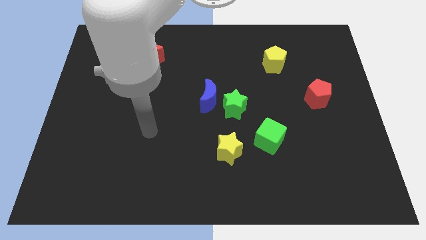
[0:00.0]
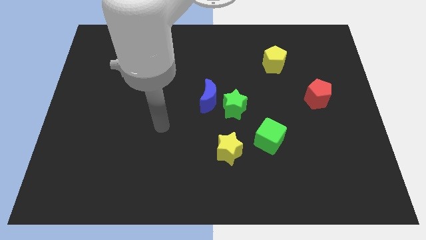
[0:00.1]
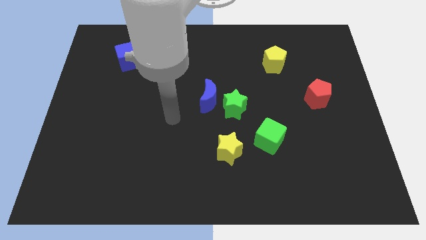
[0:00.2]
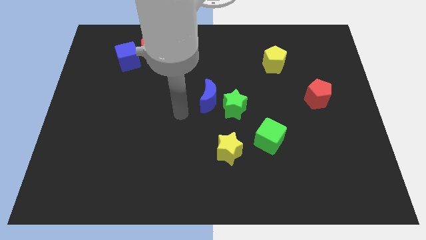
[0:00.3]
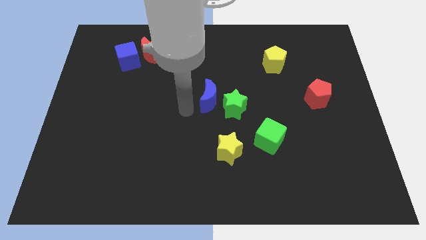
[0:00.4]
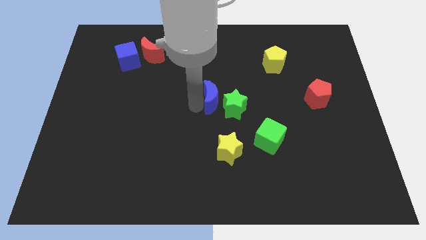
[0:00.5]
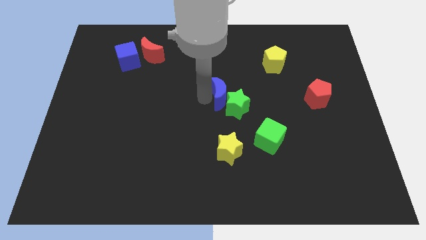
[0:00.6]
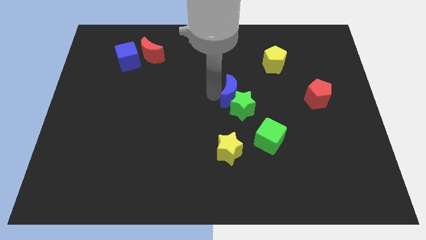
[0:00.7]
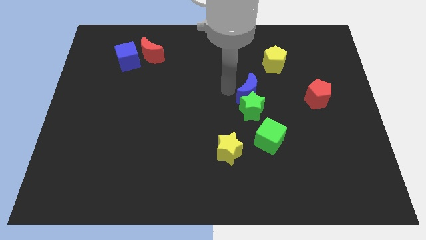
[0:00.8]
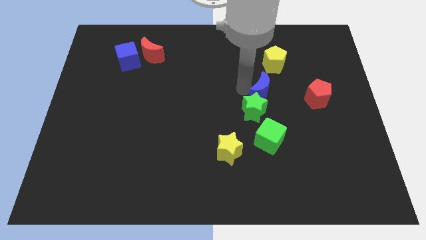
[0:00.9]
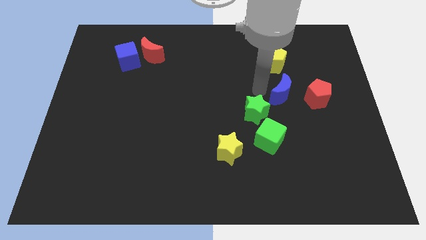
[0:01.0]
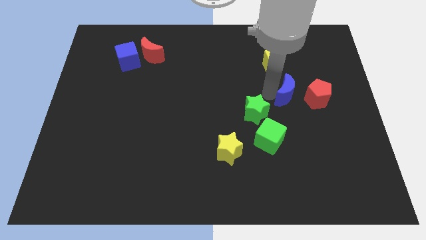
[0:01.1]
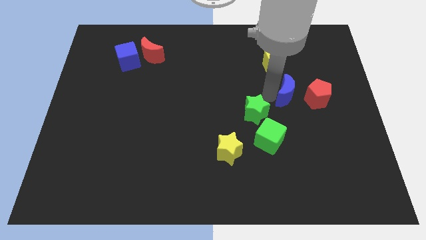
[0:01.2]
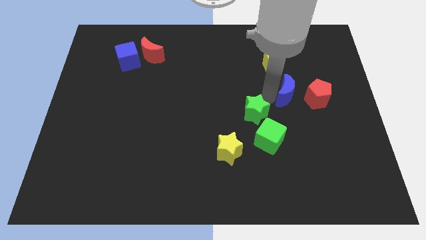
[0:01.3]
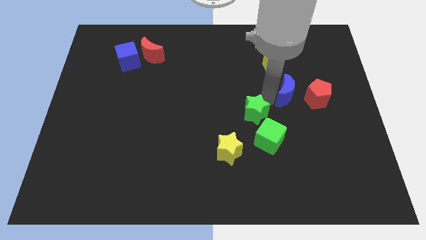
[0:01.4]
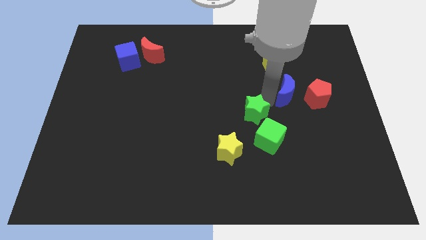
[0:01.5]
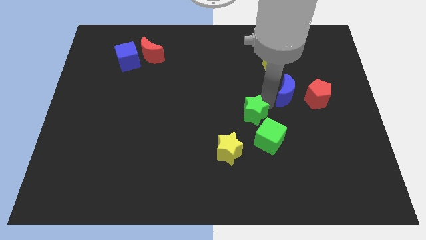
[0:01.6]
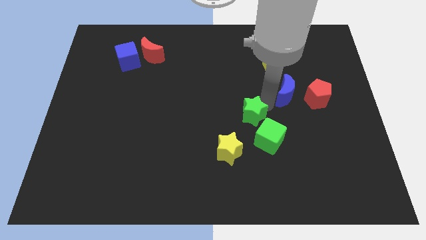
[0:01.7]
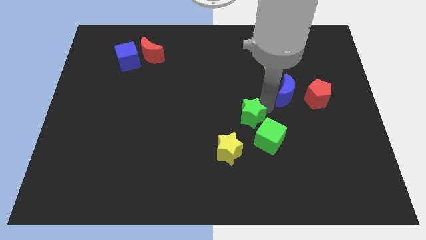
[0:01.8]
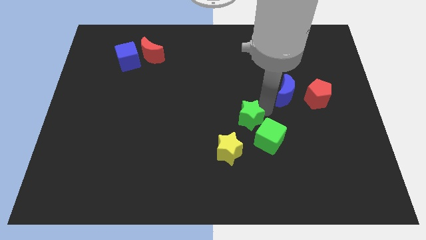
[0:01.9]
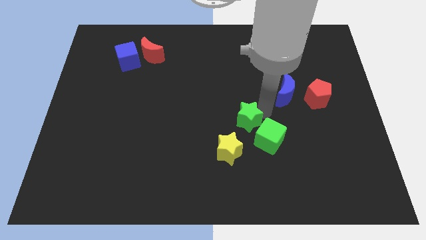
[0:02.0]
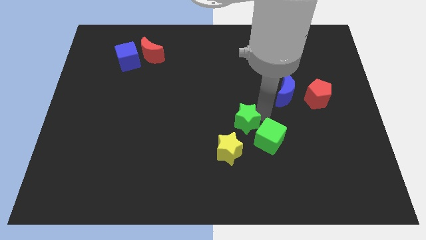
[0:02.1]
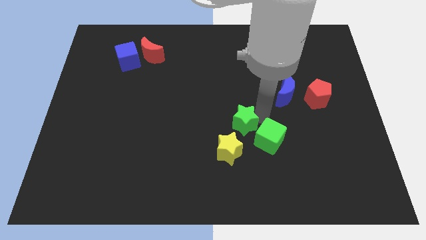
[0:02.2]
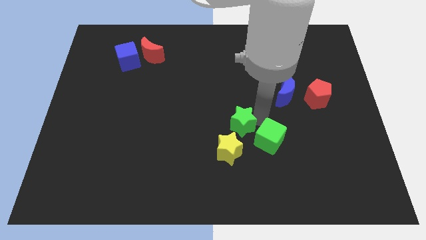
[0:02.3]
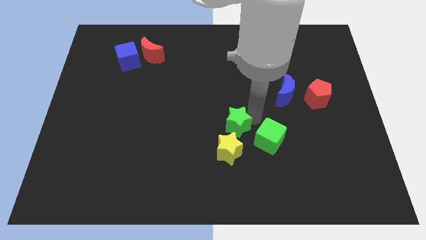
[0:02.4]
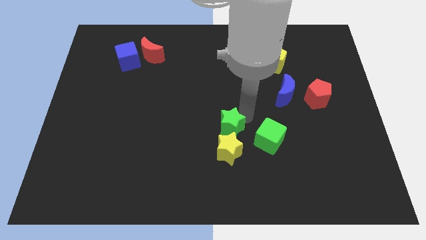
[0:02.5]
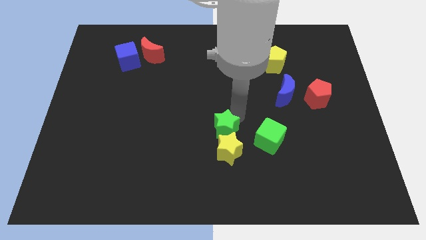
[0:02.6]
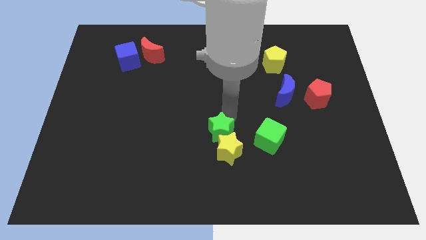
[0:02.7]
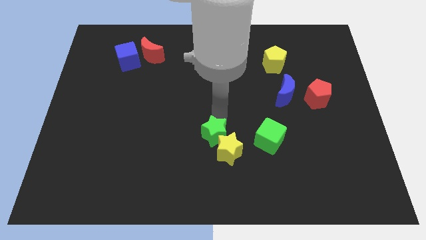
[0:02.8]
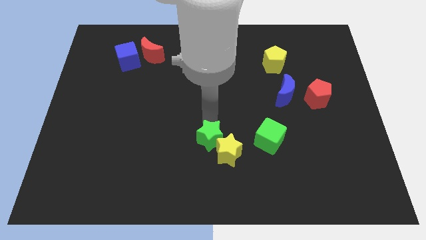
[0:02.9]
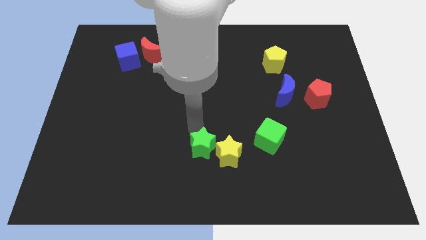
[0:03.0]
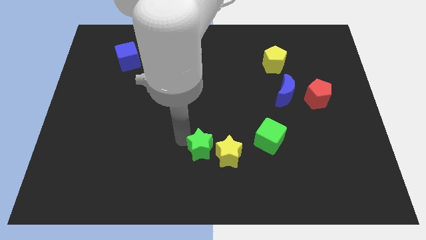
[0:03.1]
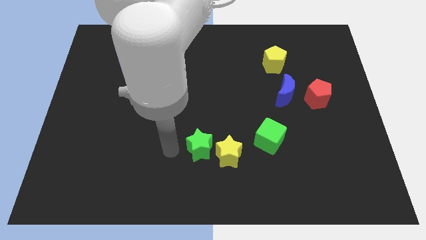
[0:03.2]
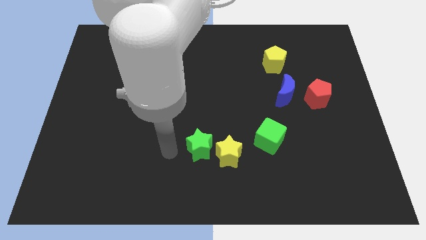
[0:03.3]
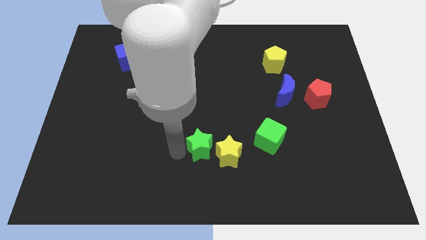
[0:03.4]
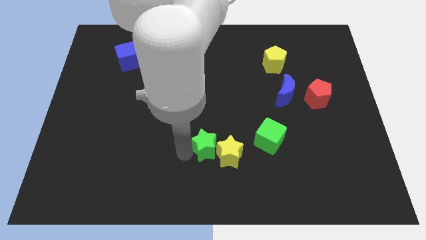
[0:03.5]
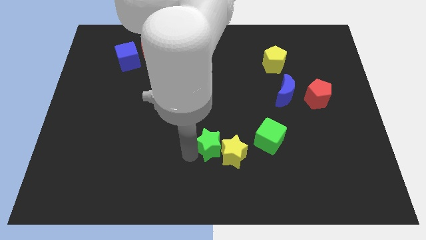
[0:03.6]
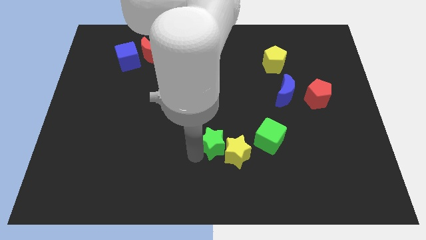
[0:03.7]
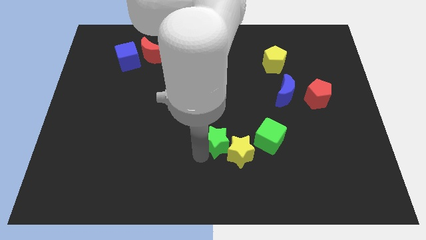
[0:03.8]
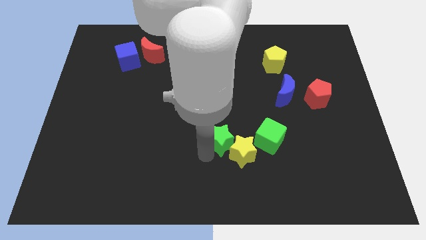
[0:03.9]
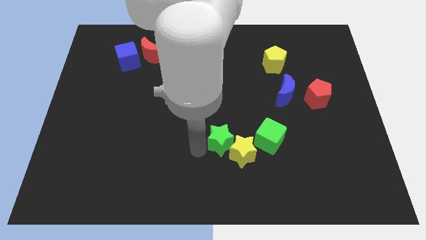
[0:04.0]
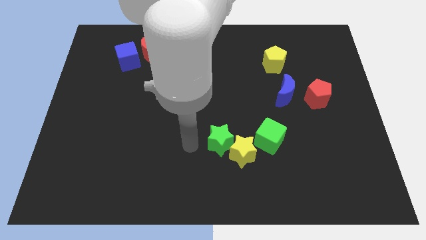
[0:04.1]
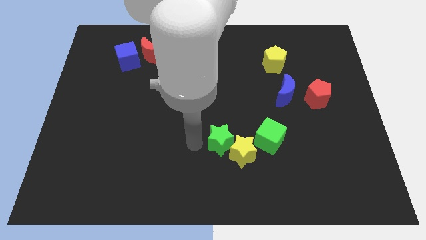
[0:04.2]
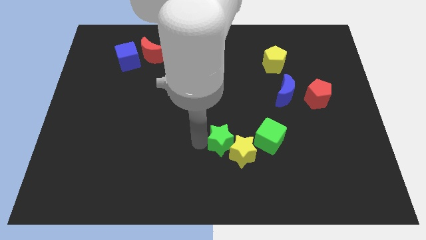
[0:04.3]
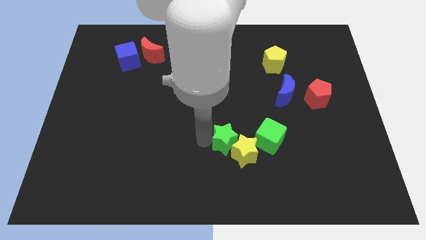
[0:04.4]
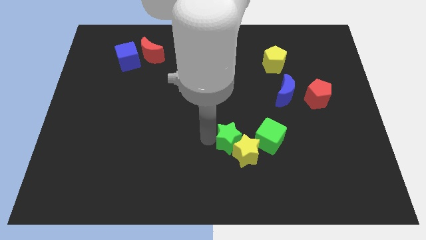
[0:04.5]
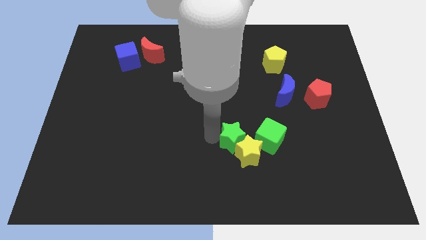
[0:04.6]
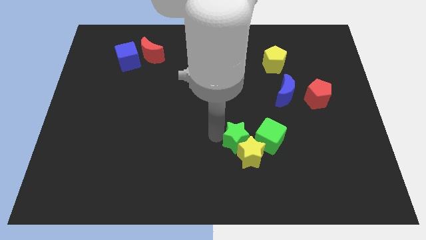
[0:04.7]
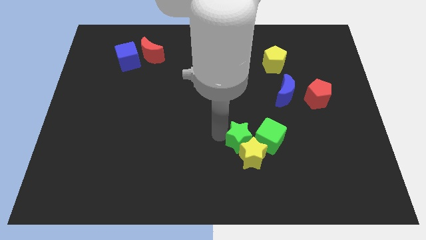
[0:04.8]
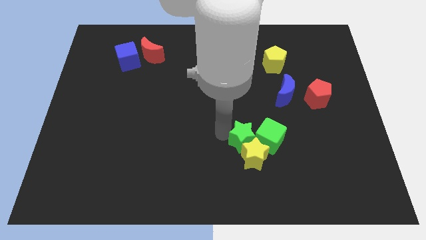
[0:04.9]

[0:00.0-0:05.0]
put the green star close to the green cube

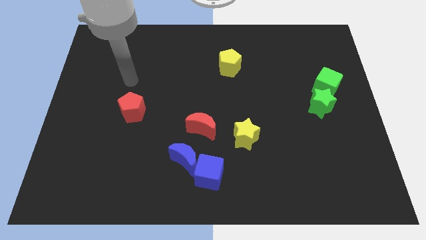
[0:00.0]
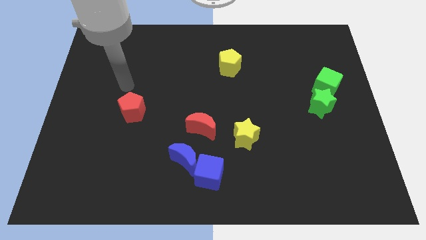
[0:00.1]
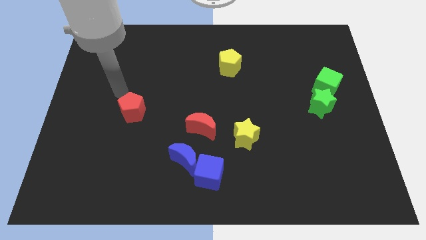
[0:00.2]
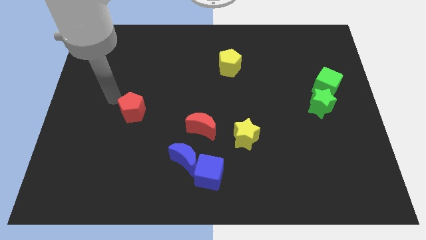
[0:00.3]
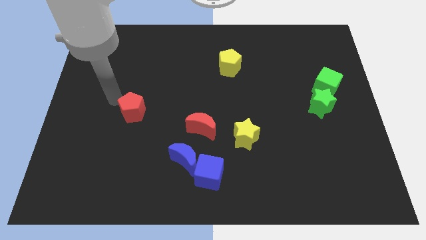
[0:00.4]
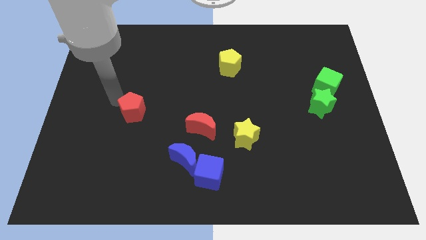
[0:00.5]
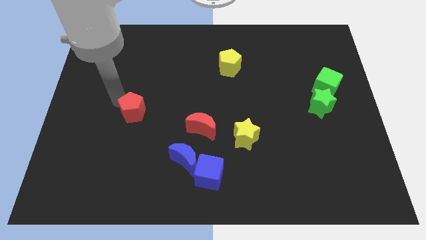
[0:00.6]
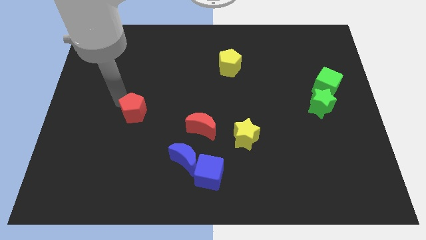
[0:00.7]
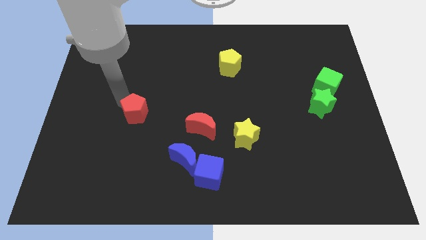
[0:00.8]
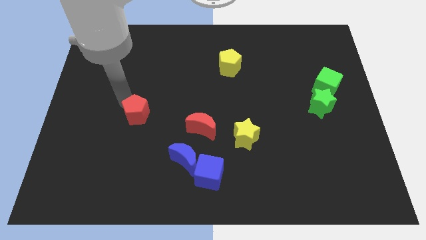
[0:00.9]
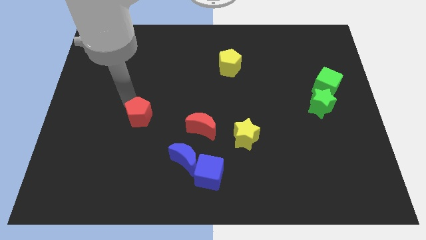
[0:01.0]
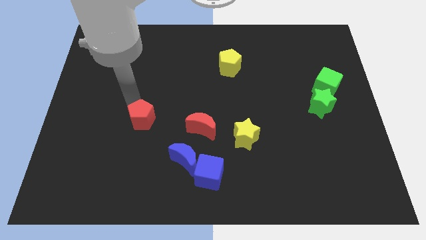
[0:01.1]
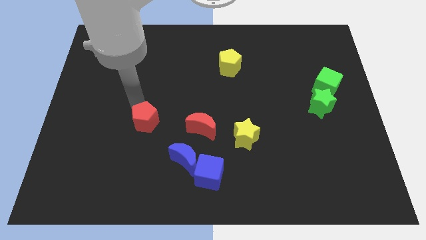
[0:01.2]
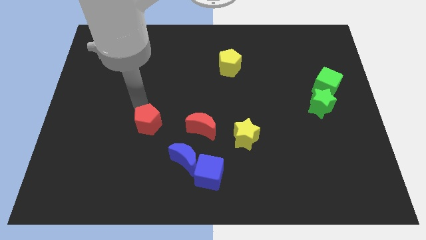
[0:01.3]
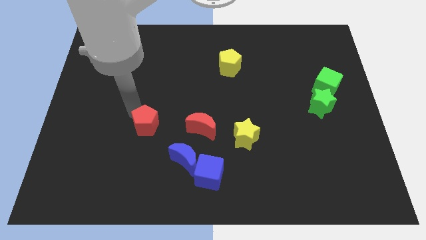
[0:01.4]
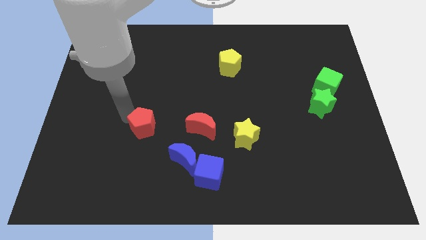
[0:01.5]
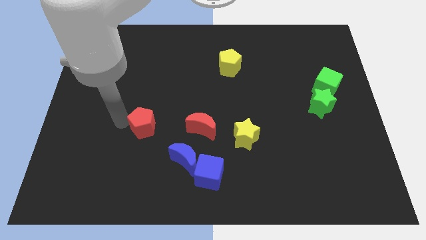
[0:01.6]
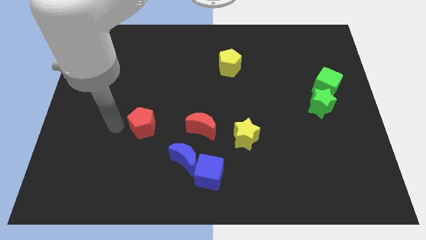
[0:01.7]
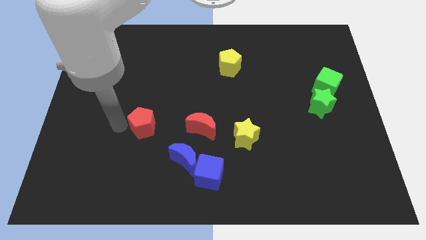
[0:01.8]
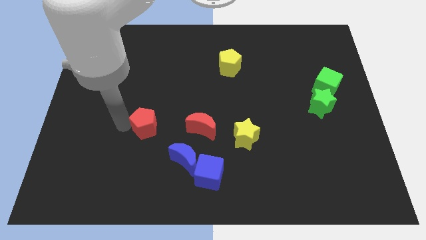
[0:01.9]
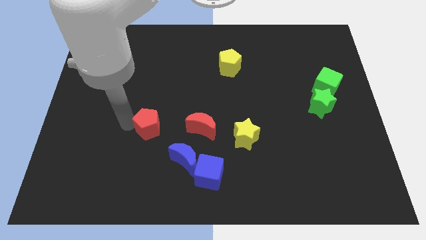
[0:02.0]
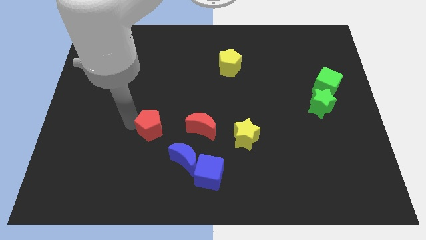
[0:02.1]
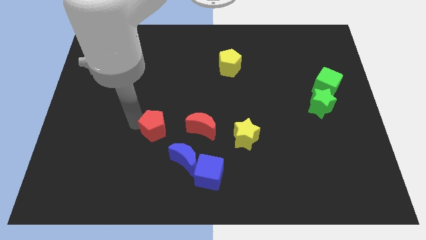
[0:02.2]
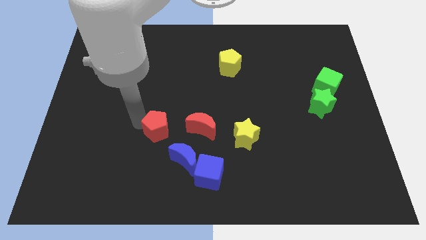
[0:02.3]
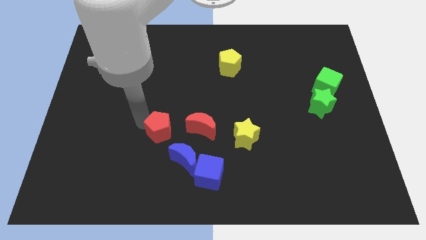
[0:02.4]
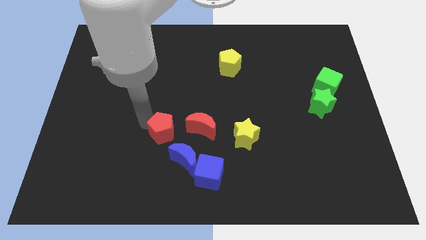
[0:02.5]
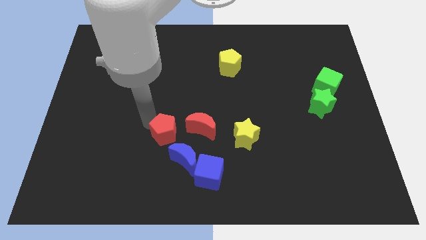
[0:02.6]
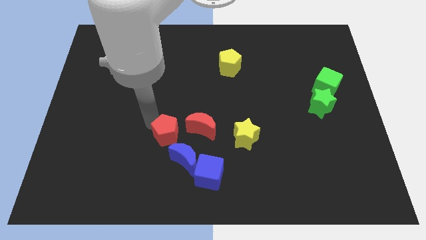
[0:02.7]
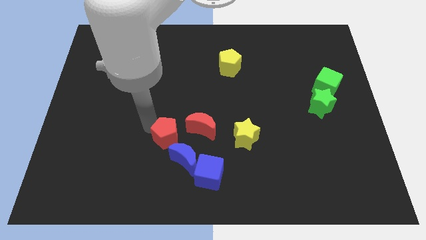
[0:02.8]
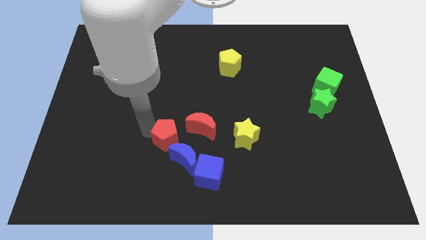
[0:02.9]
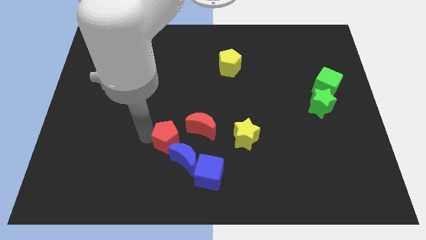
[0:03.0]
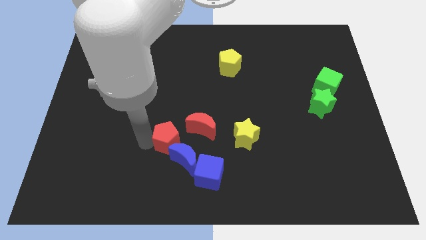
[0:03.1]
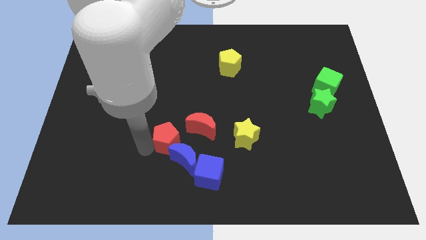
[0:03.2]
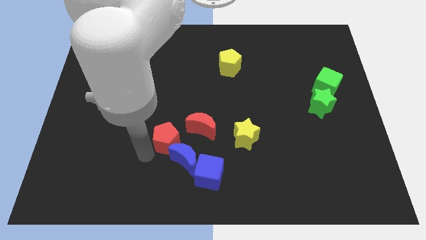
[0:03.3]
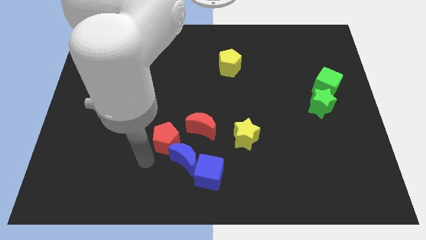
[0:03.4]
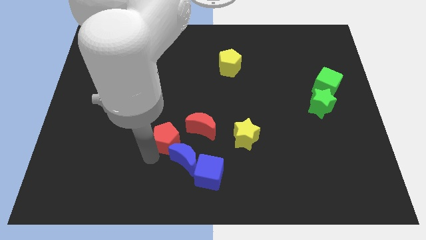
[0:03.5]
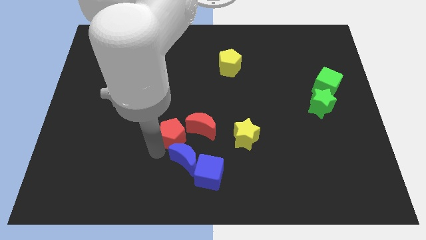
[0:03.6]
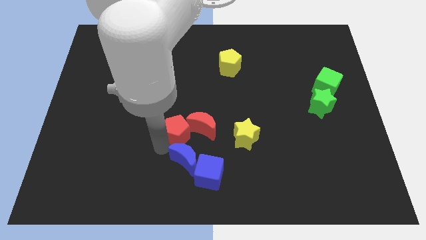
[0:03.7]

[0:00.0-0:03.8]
put the red pentagon to the red moon
